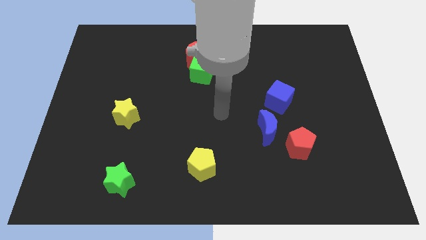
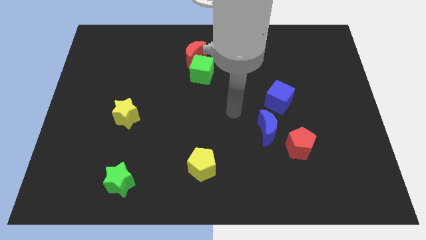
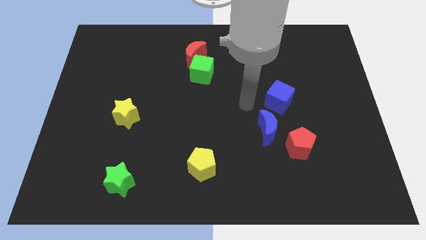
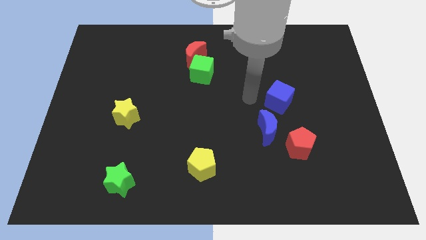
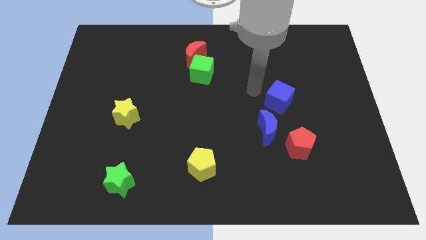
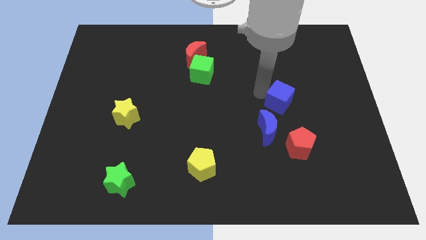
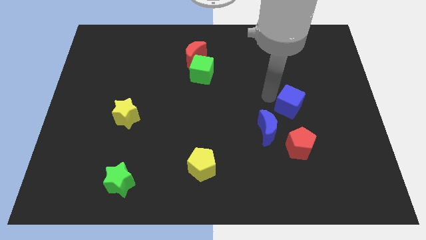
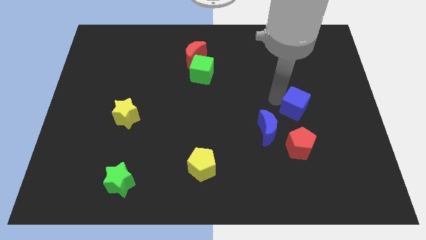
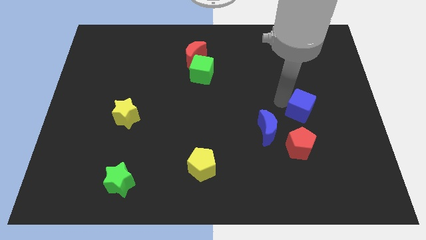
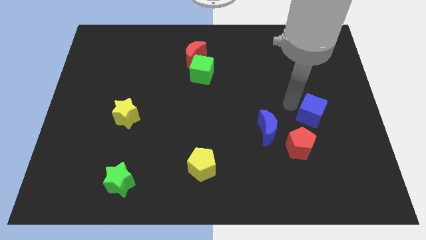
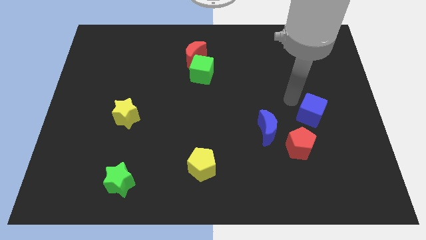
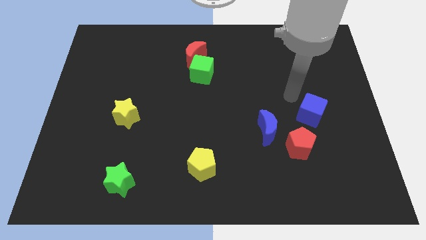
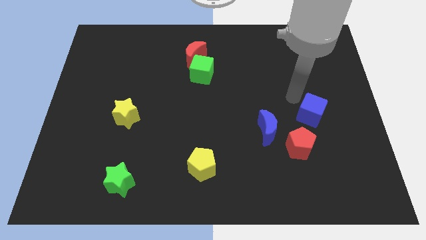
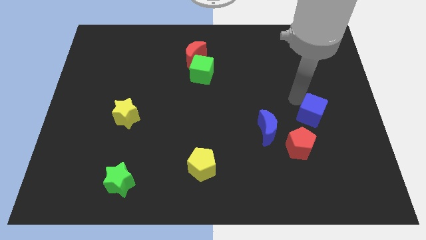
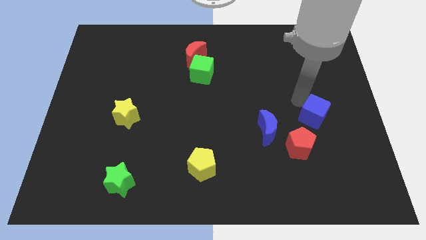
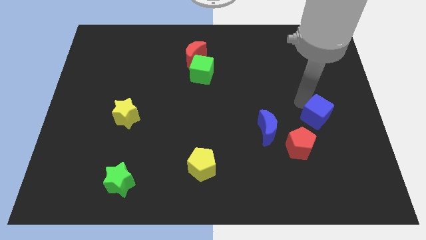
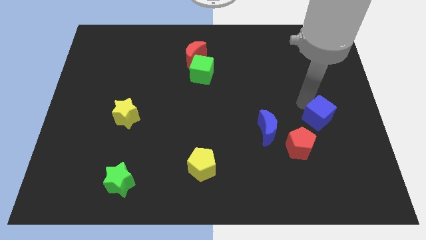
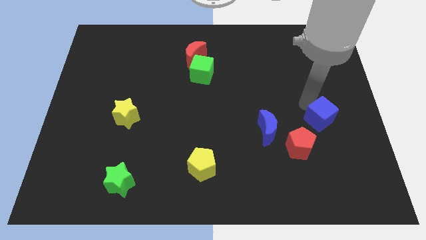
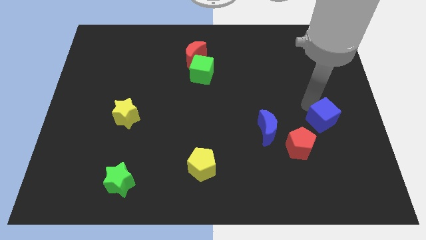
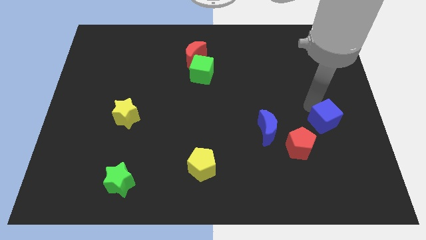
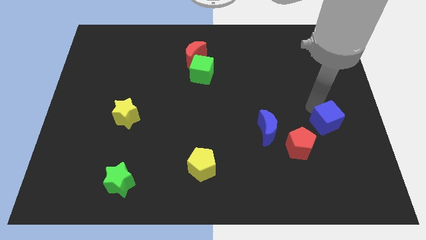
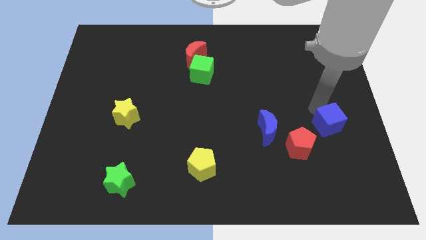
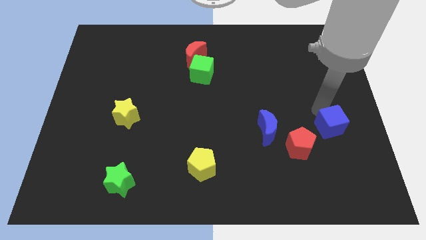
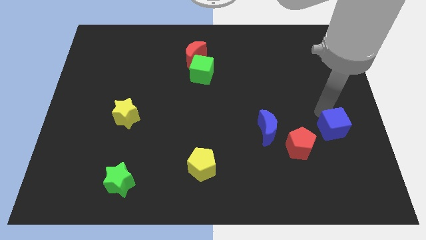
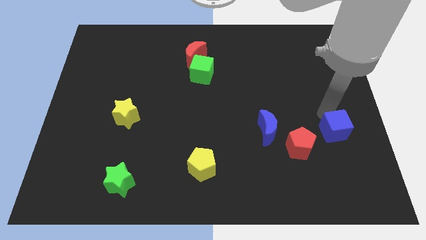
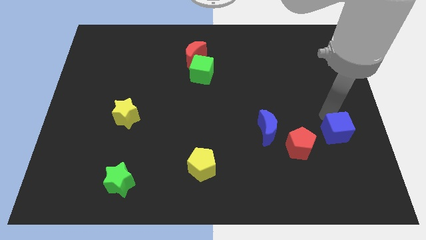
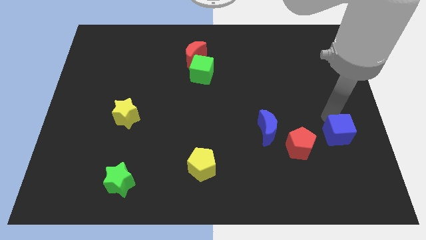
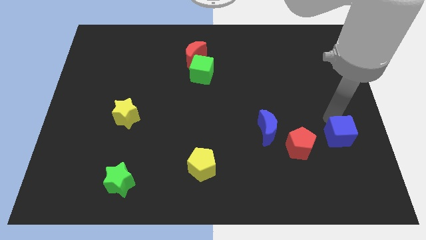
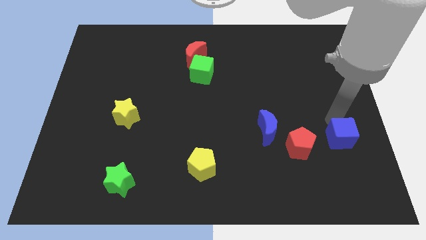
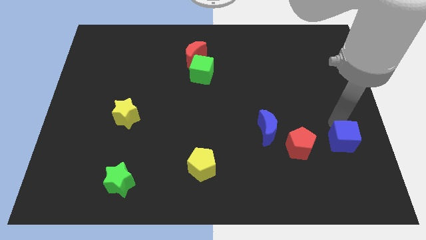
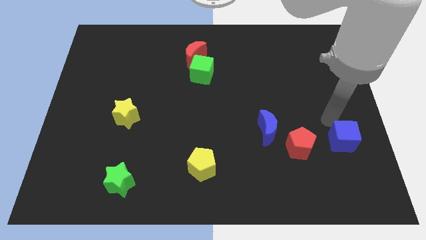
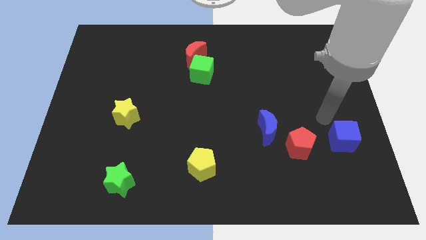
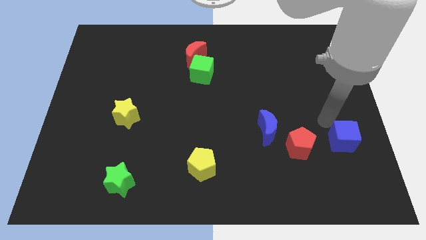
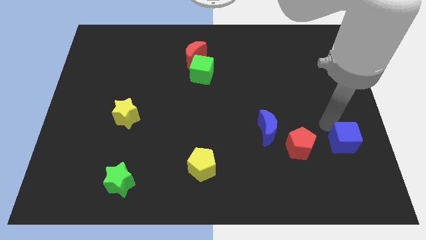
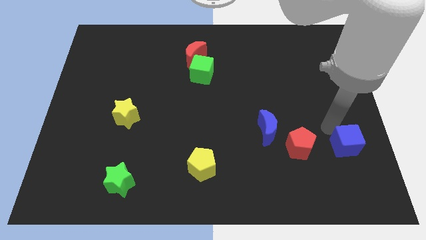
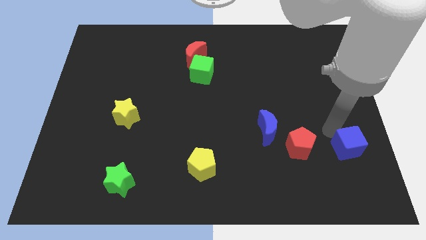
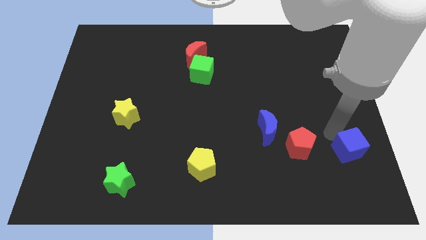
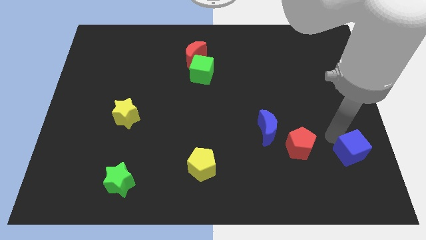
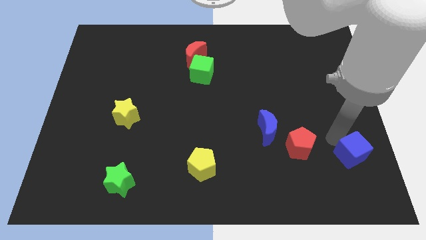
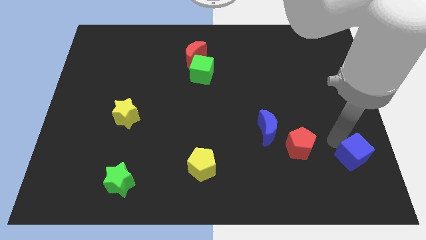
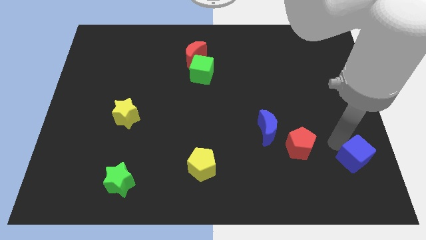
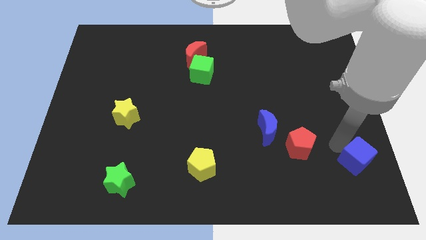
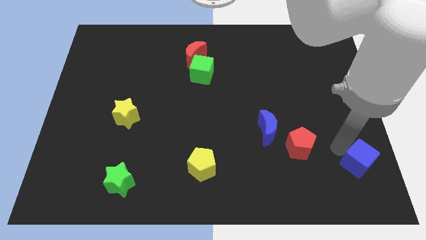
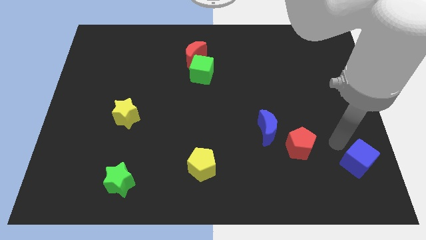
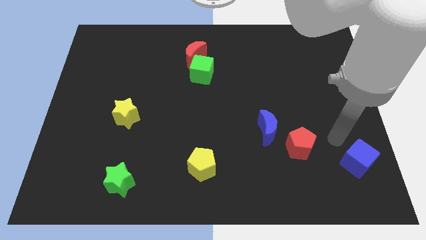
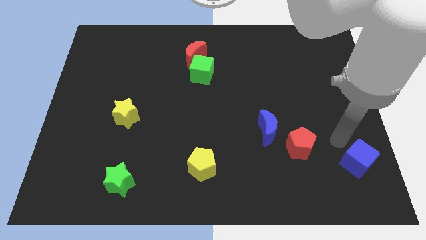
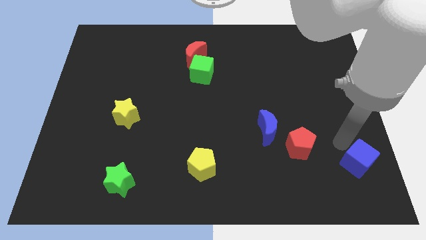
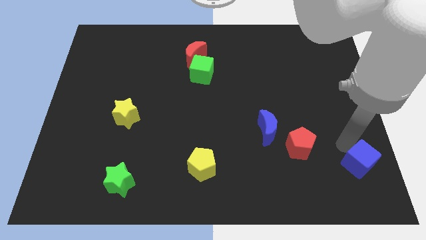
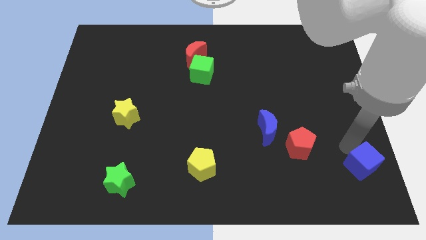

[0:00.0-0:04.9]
slide the blue cube to the bottom right of the board

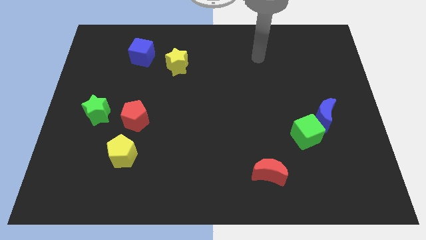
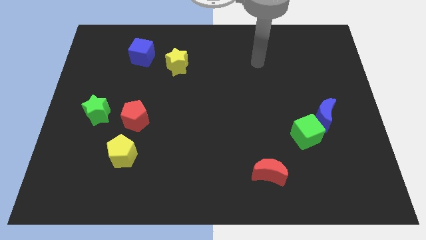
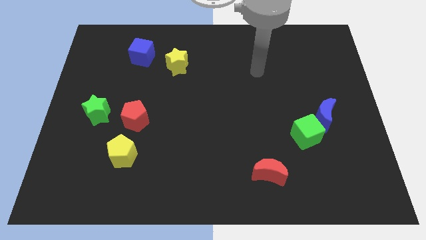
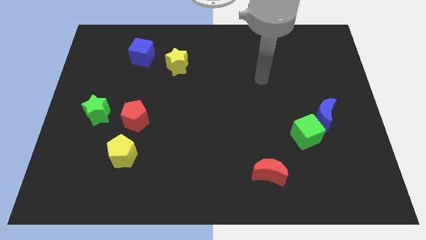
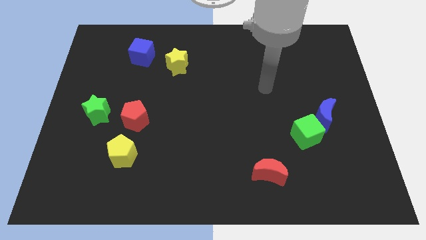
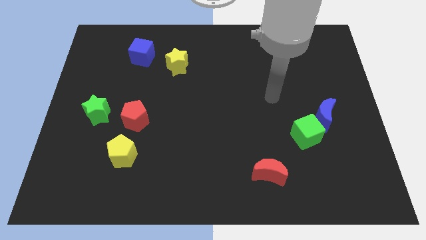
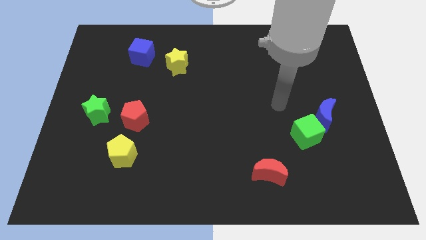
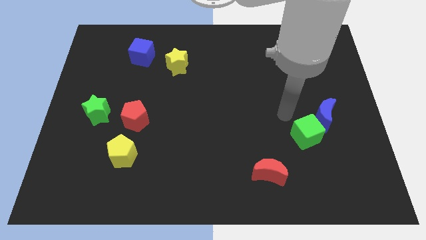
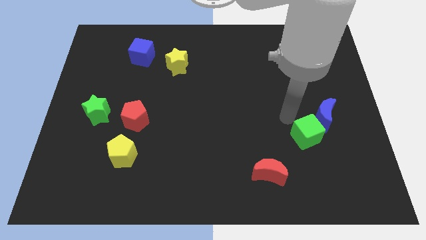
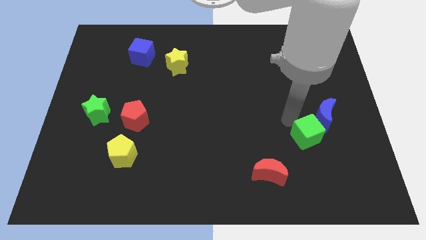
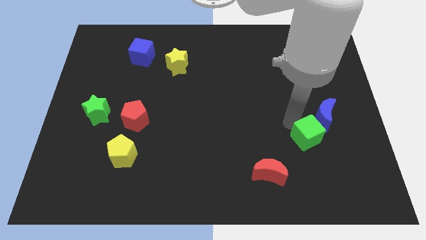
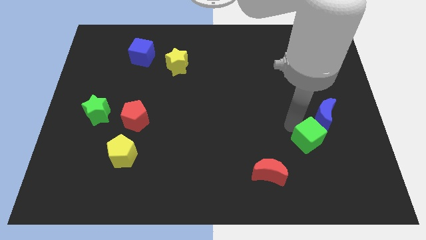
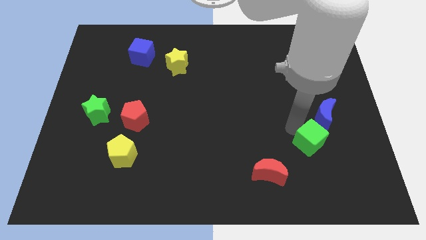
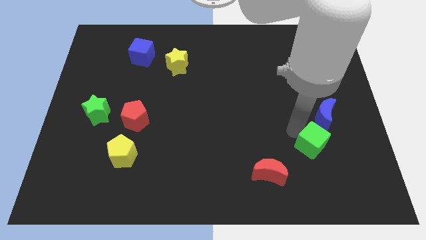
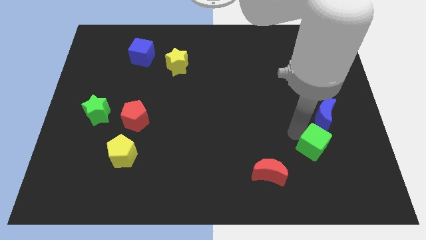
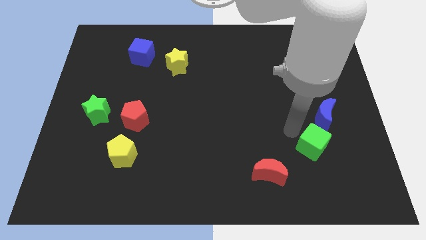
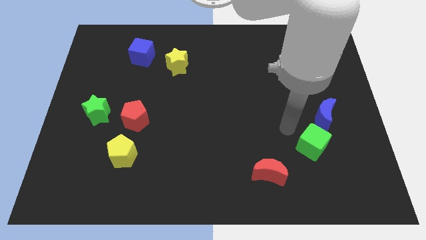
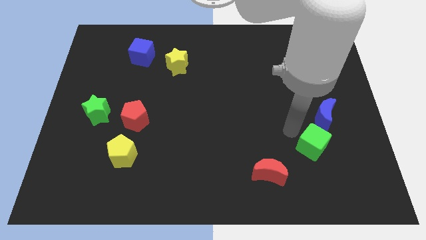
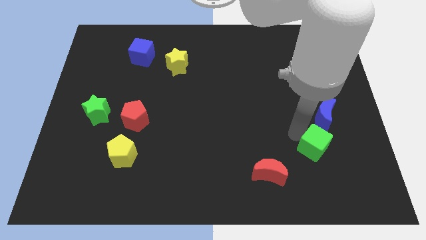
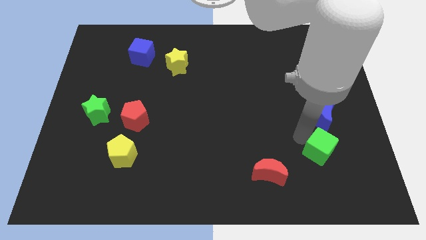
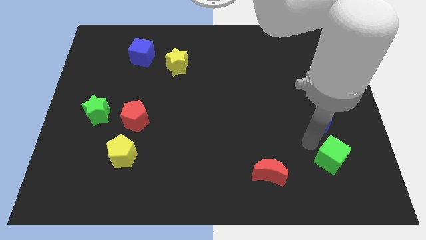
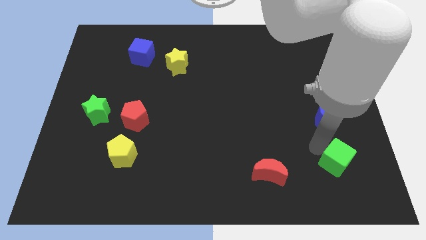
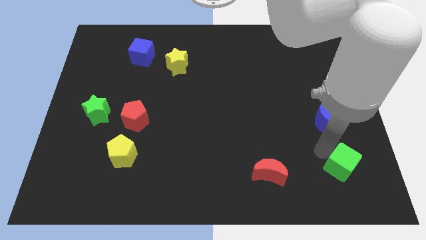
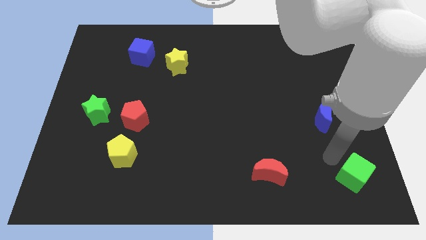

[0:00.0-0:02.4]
move the green cube to the bottom right

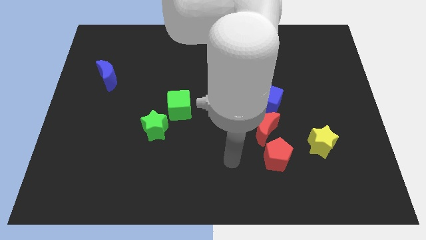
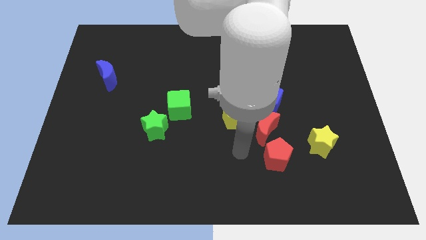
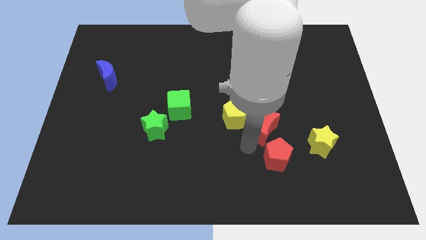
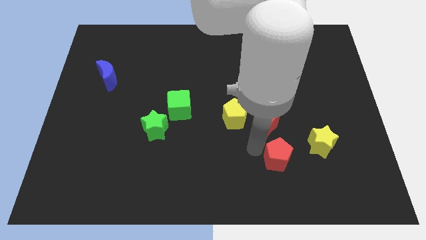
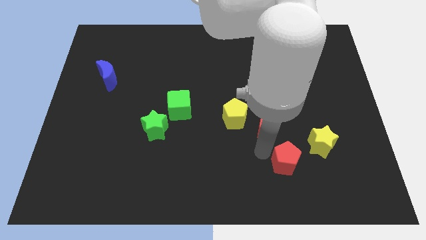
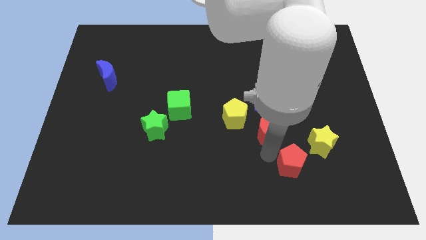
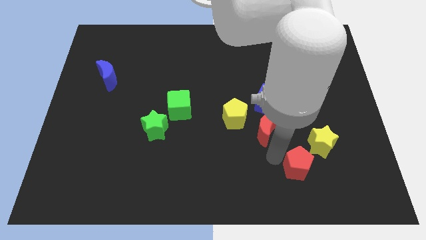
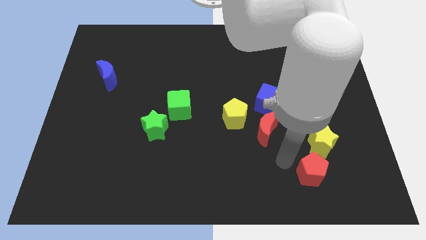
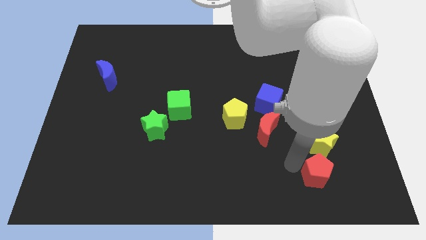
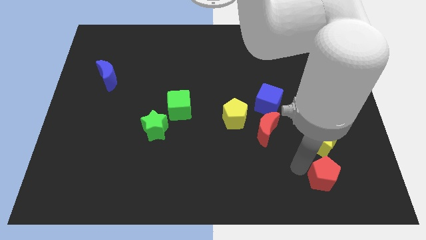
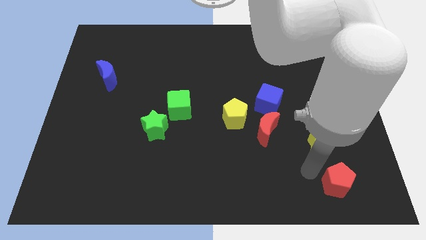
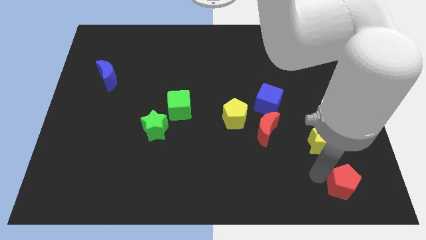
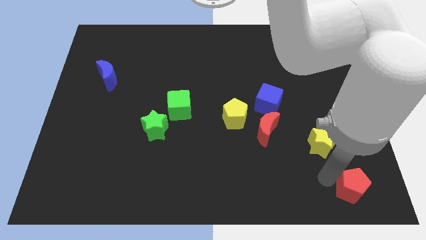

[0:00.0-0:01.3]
put the red pentagon to the bottom right corner
